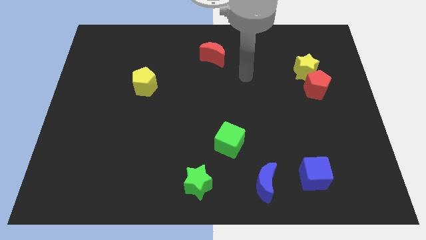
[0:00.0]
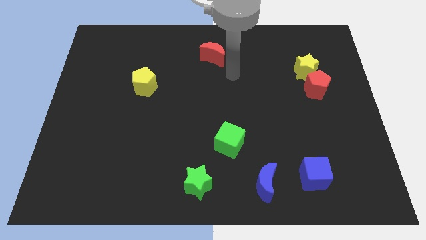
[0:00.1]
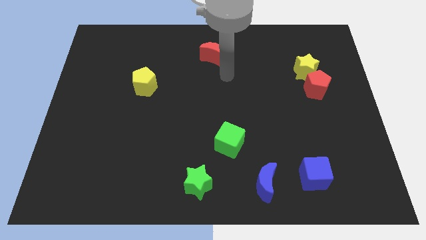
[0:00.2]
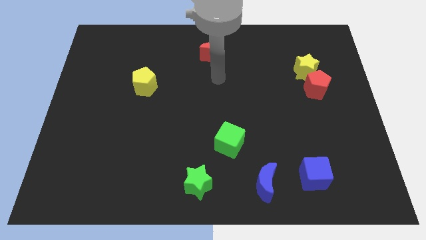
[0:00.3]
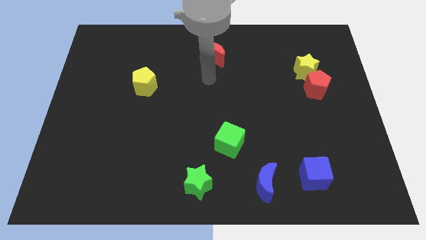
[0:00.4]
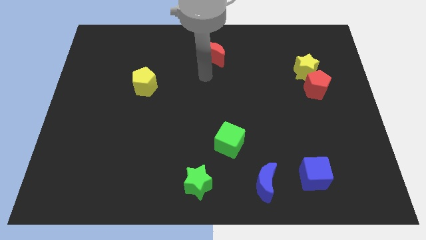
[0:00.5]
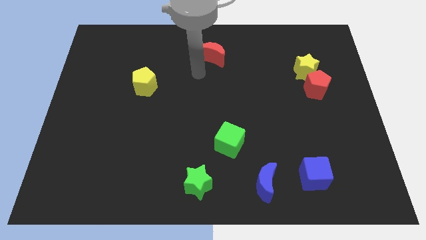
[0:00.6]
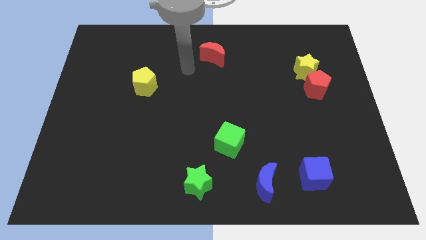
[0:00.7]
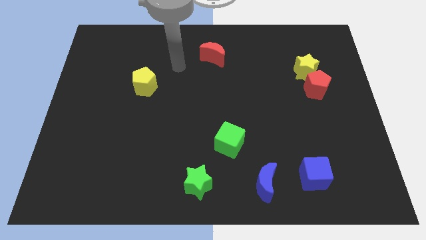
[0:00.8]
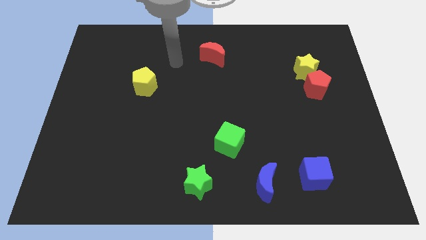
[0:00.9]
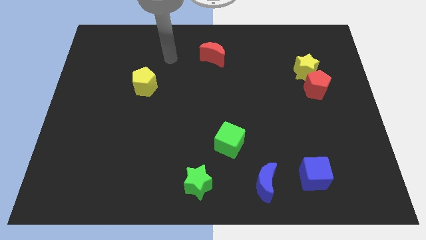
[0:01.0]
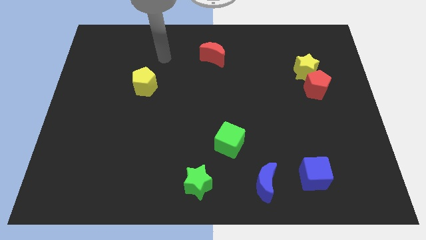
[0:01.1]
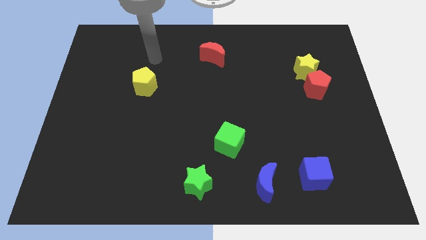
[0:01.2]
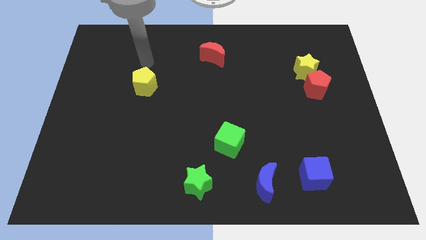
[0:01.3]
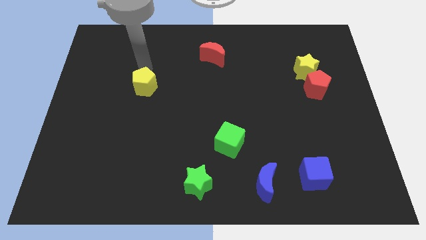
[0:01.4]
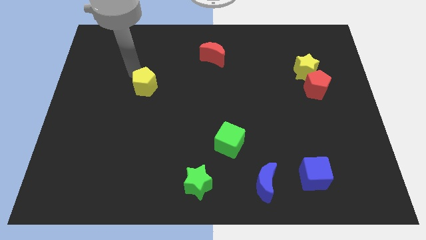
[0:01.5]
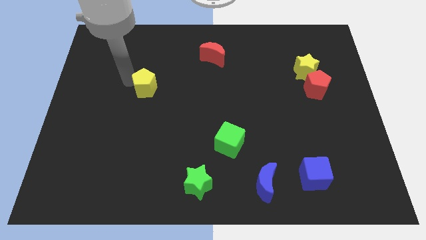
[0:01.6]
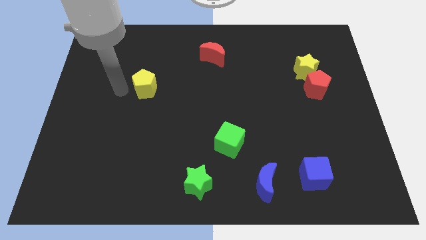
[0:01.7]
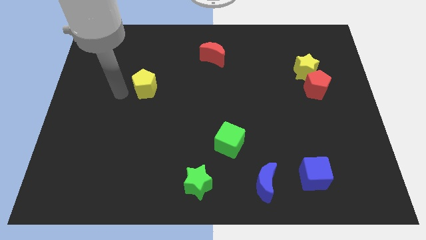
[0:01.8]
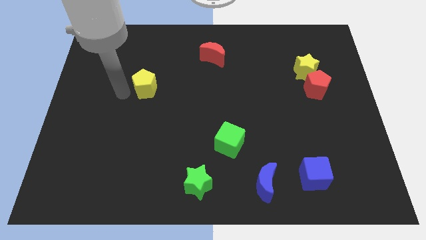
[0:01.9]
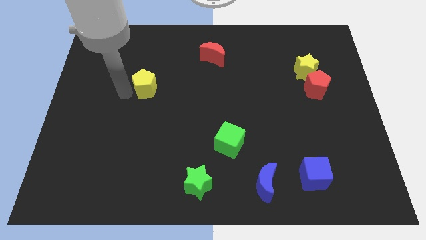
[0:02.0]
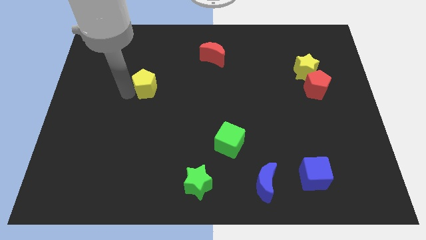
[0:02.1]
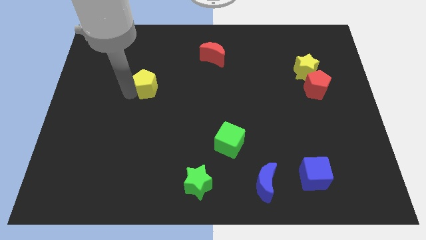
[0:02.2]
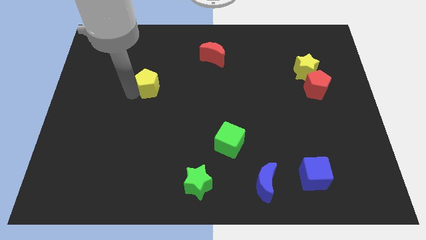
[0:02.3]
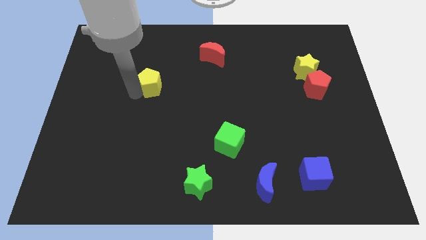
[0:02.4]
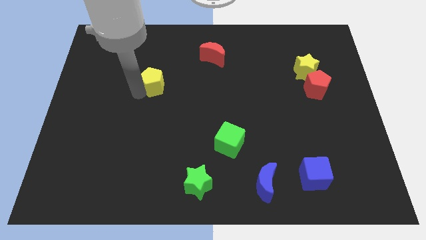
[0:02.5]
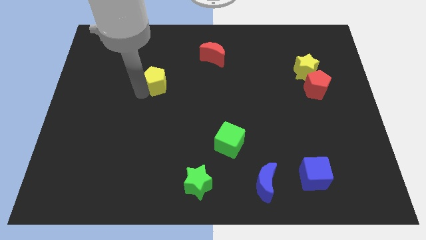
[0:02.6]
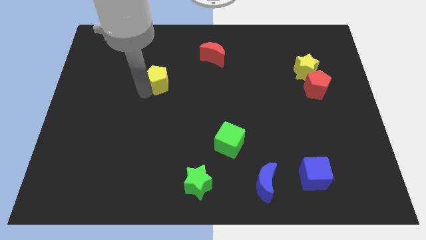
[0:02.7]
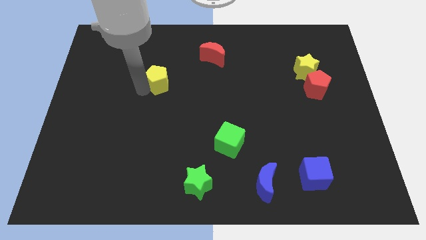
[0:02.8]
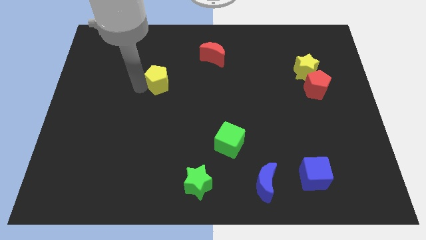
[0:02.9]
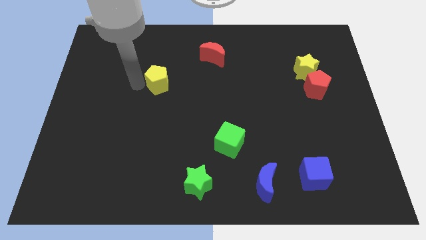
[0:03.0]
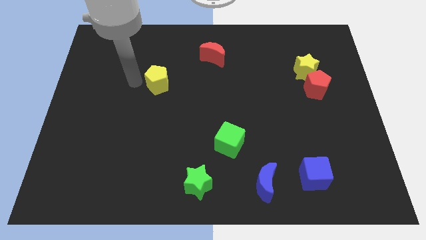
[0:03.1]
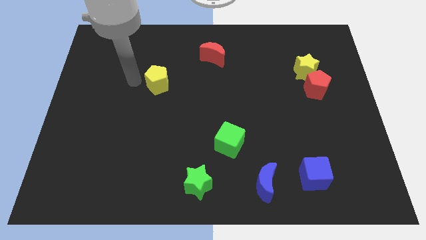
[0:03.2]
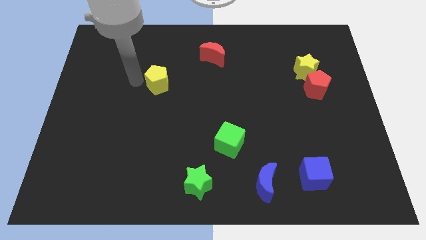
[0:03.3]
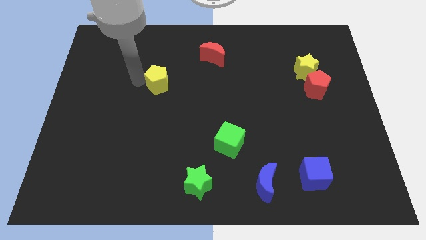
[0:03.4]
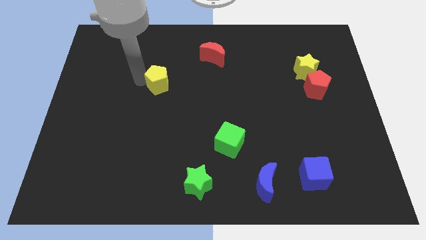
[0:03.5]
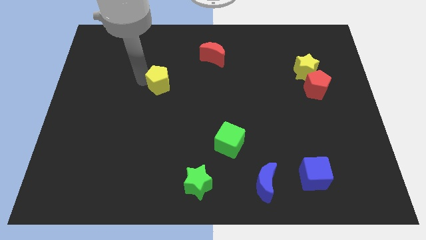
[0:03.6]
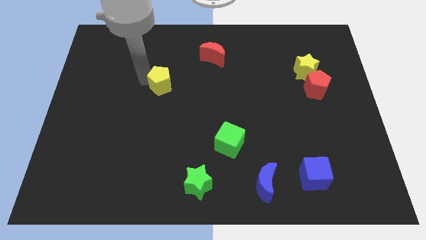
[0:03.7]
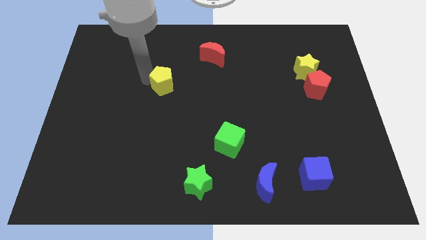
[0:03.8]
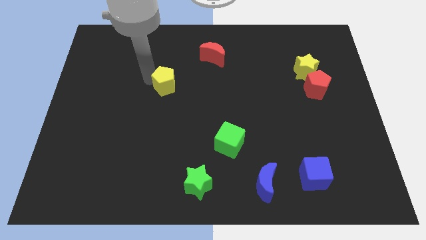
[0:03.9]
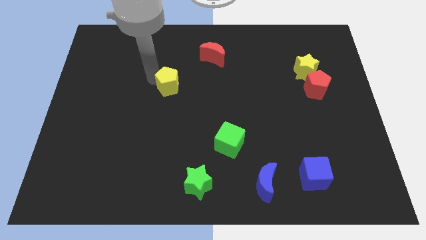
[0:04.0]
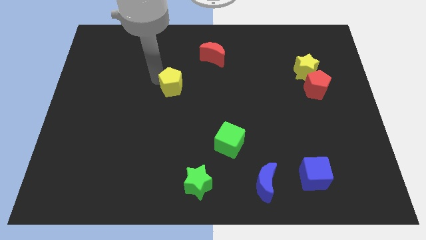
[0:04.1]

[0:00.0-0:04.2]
slide the yellow pentagon a little right

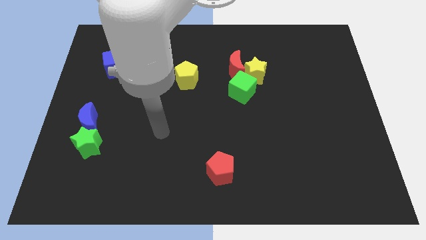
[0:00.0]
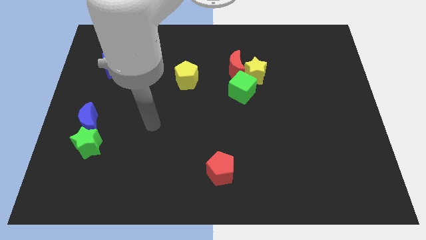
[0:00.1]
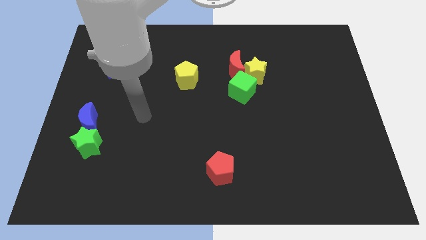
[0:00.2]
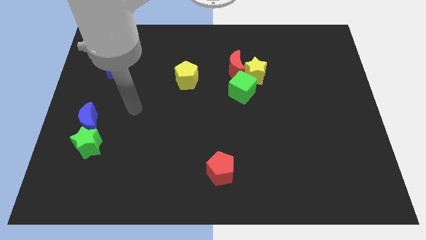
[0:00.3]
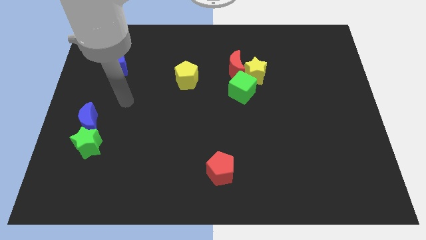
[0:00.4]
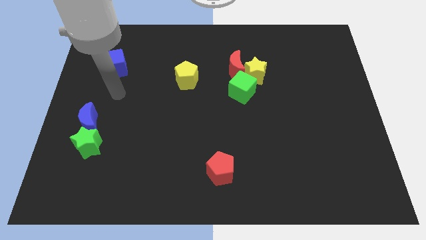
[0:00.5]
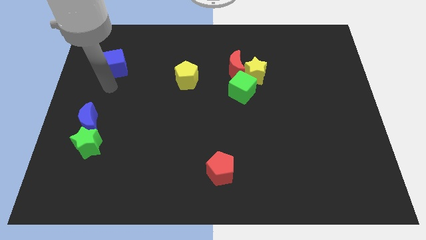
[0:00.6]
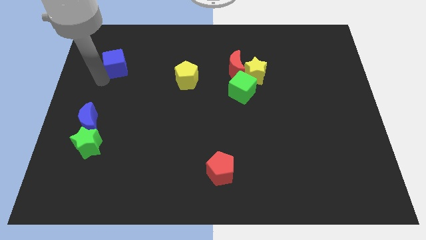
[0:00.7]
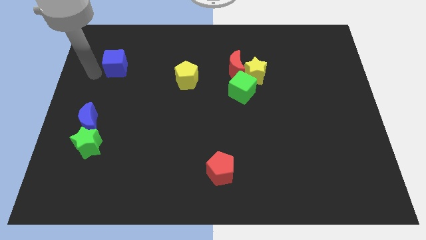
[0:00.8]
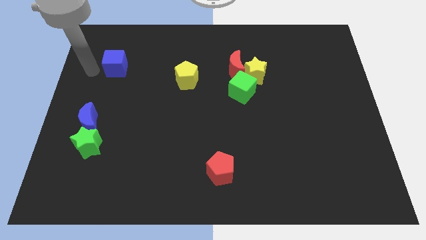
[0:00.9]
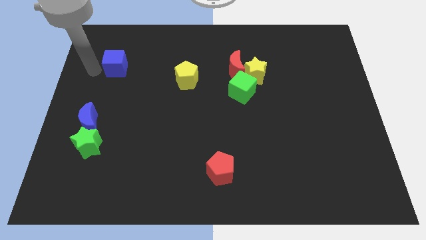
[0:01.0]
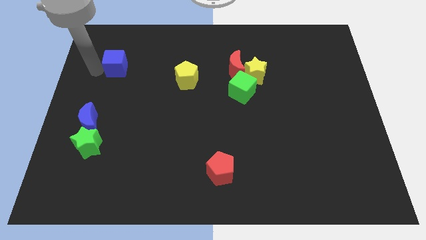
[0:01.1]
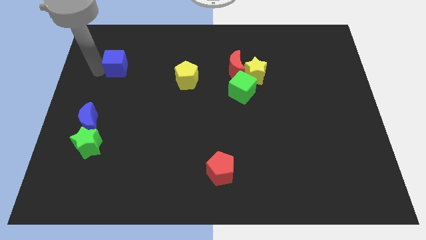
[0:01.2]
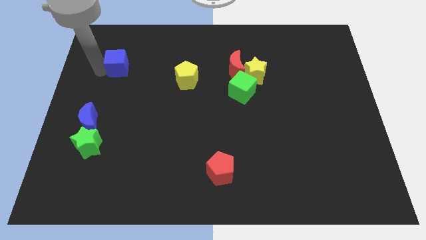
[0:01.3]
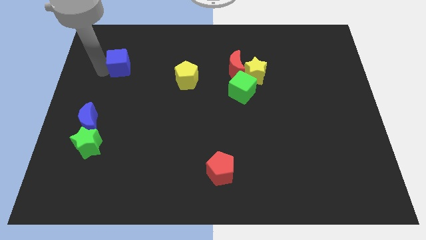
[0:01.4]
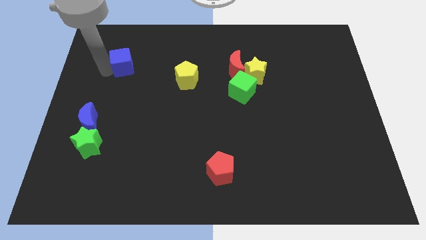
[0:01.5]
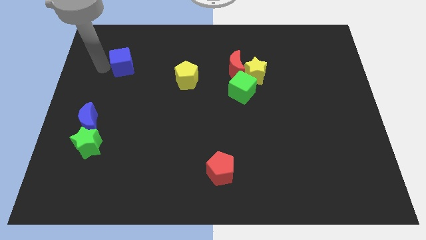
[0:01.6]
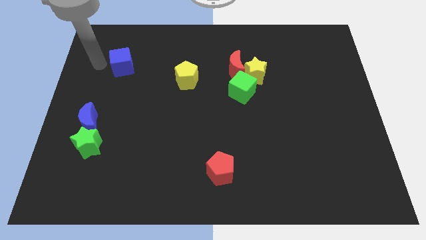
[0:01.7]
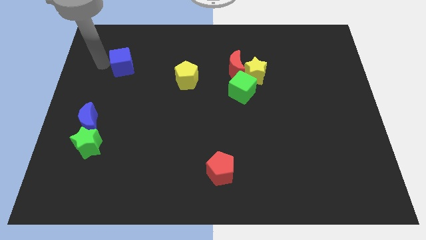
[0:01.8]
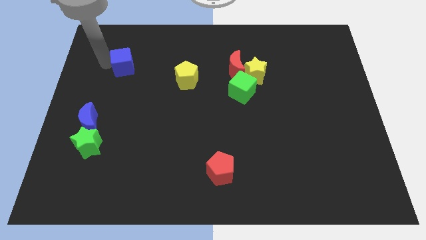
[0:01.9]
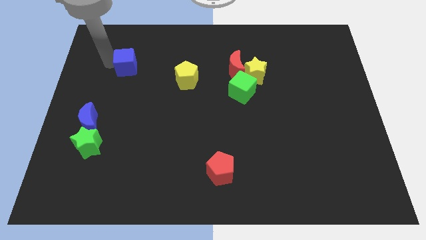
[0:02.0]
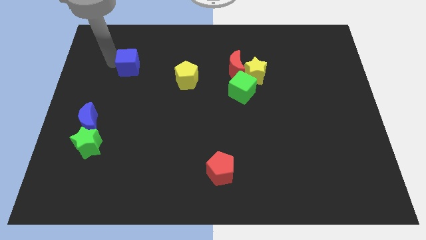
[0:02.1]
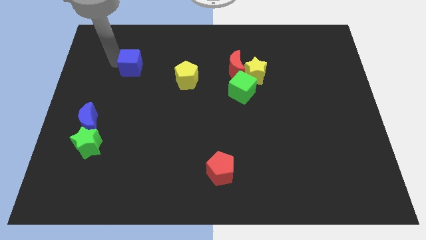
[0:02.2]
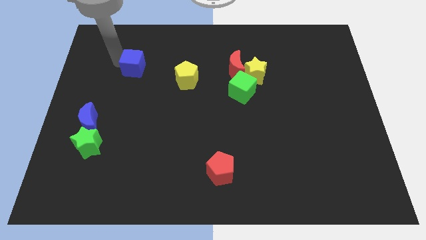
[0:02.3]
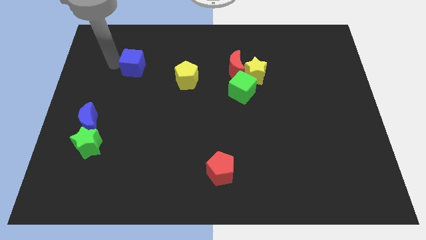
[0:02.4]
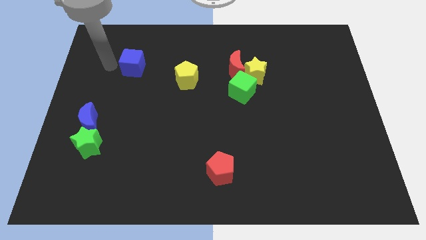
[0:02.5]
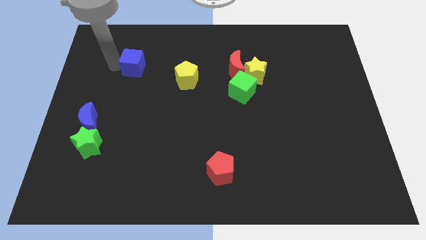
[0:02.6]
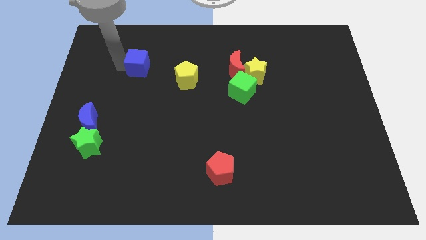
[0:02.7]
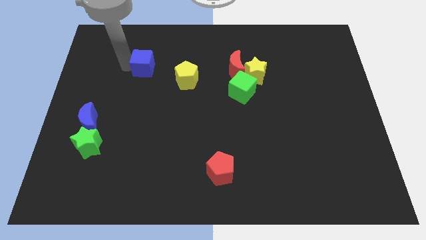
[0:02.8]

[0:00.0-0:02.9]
slide the blue cube right somewhat

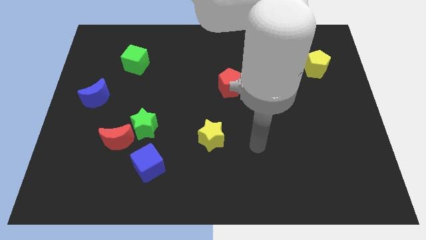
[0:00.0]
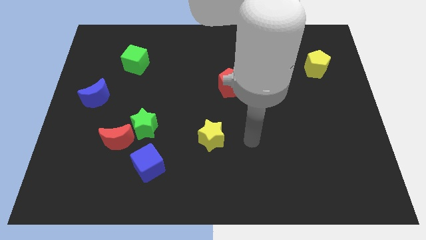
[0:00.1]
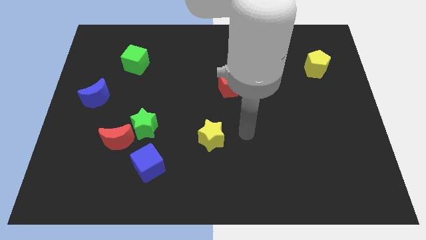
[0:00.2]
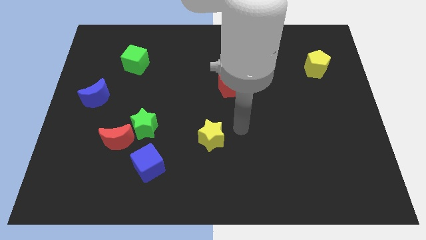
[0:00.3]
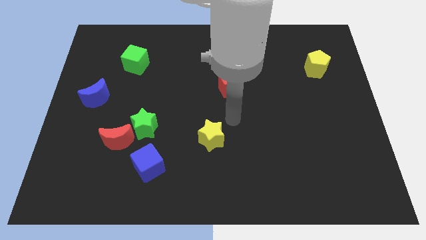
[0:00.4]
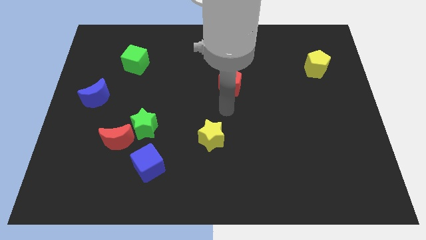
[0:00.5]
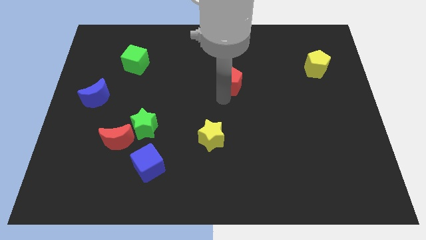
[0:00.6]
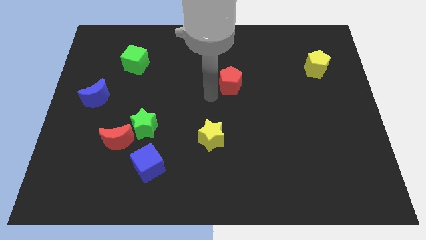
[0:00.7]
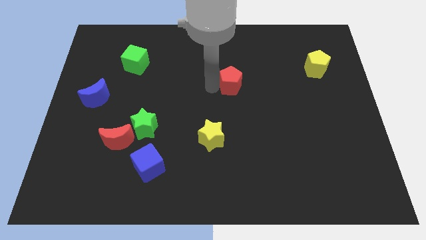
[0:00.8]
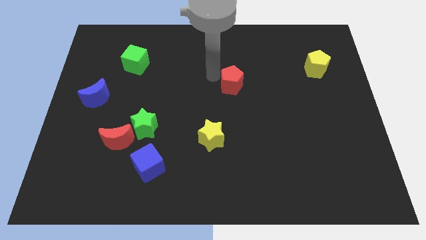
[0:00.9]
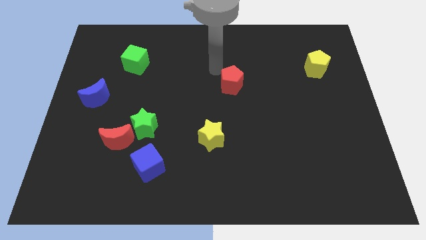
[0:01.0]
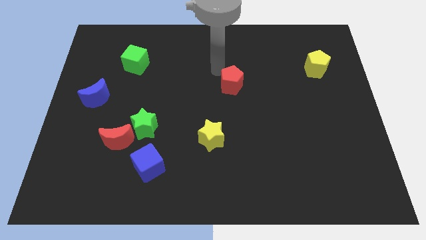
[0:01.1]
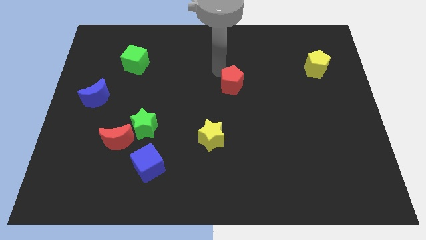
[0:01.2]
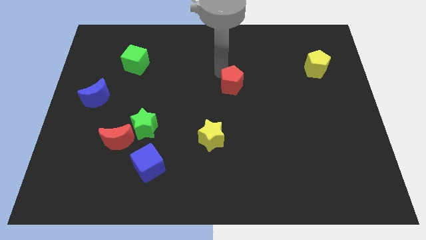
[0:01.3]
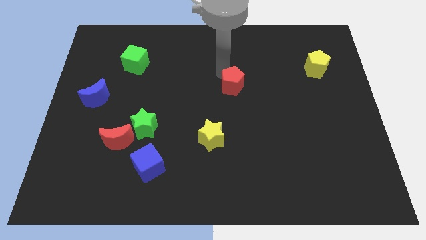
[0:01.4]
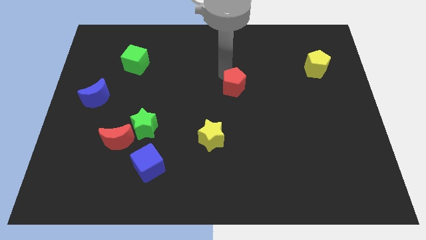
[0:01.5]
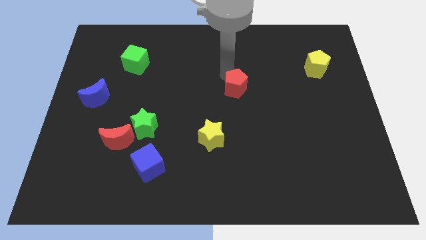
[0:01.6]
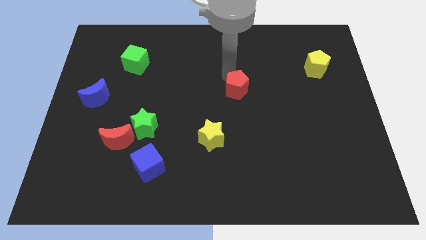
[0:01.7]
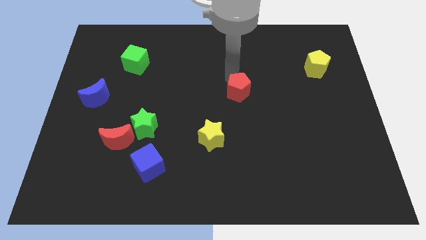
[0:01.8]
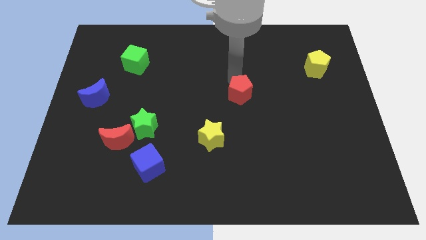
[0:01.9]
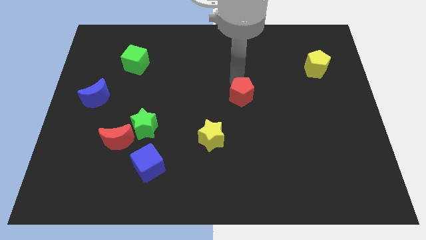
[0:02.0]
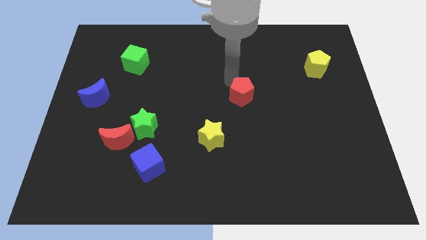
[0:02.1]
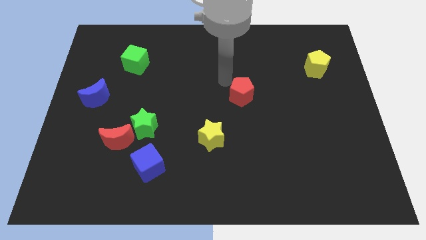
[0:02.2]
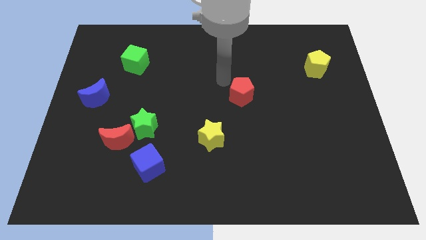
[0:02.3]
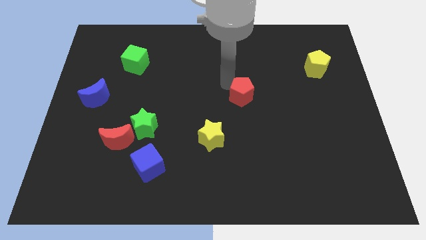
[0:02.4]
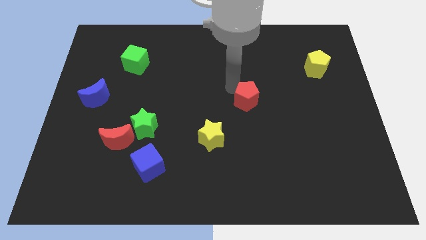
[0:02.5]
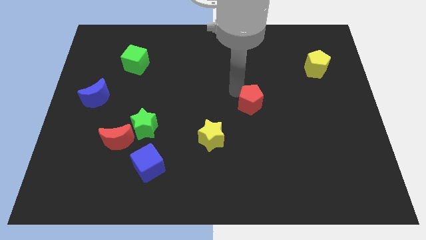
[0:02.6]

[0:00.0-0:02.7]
slide the red pentagon downwards and right somewhat
